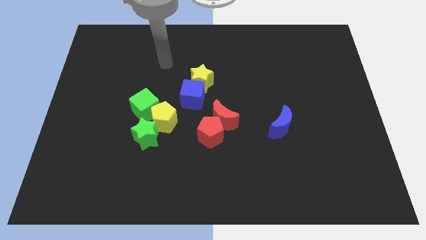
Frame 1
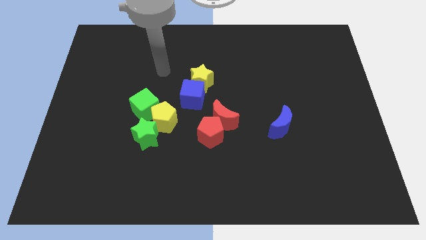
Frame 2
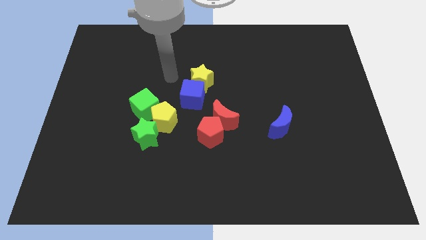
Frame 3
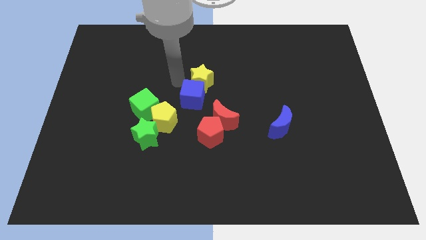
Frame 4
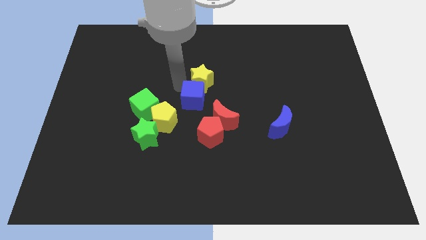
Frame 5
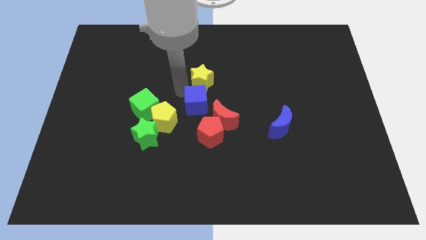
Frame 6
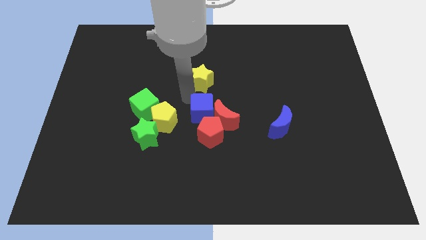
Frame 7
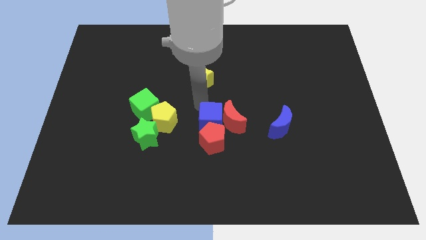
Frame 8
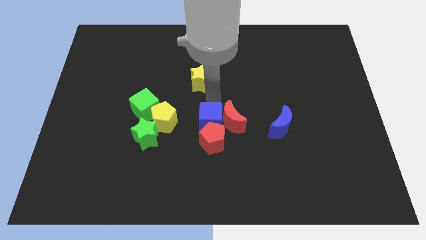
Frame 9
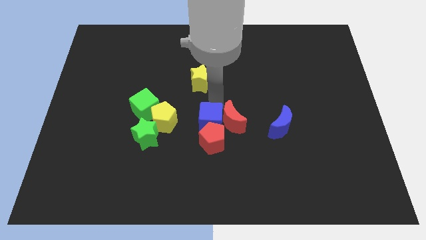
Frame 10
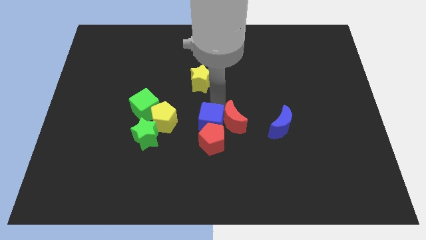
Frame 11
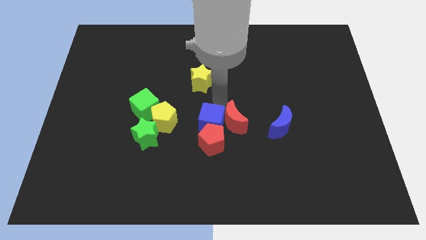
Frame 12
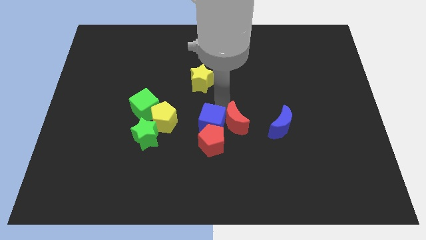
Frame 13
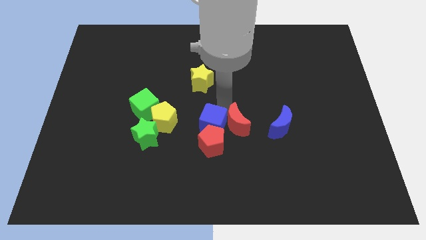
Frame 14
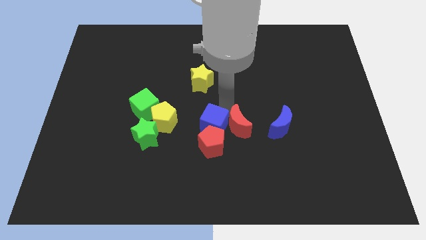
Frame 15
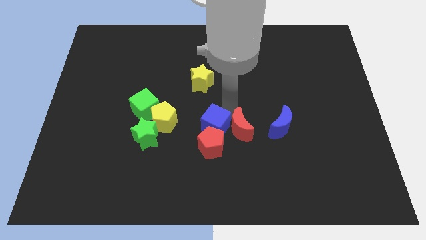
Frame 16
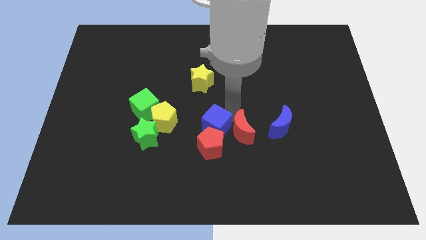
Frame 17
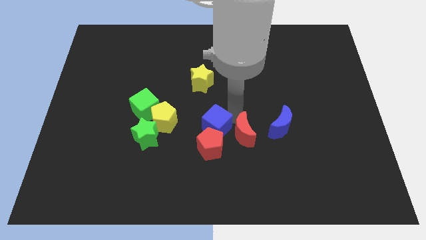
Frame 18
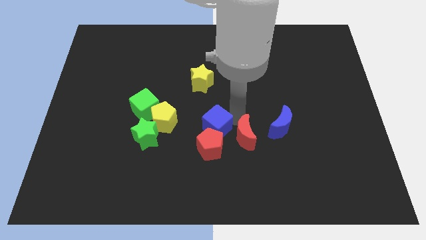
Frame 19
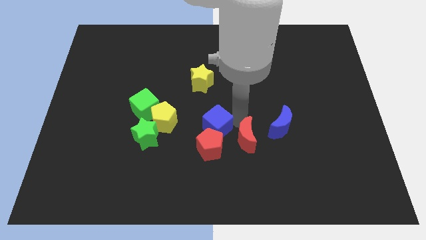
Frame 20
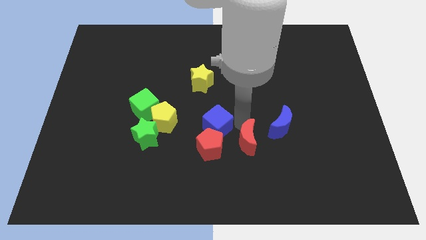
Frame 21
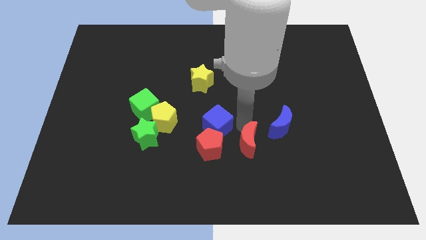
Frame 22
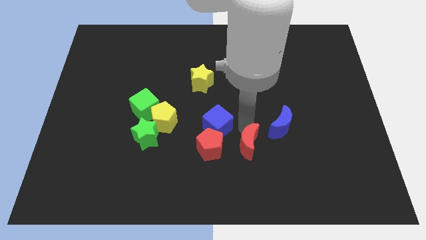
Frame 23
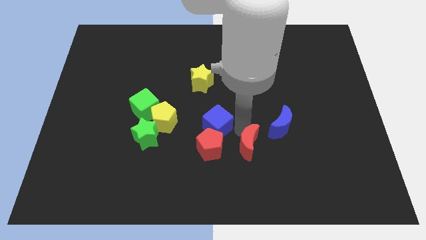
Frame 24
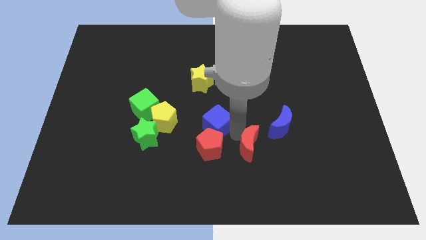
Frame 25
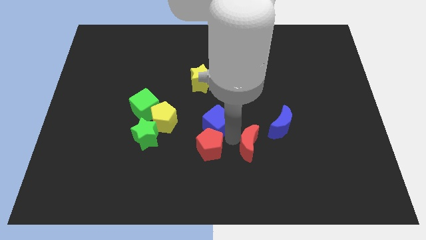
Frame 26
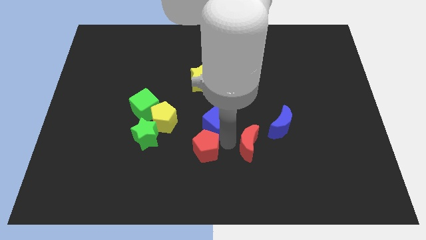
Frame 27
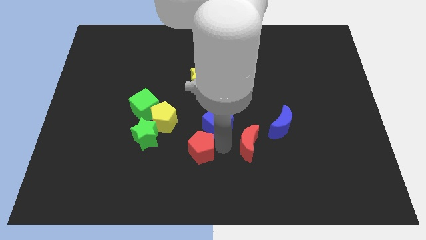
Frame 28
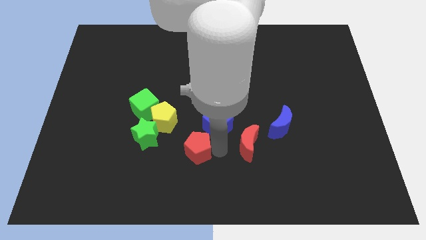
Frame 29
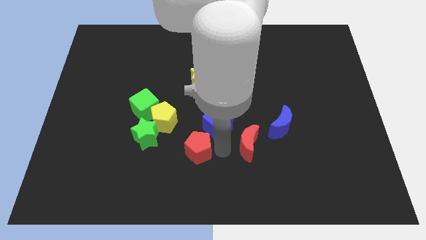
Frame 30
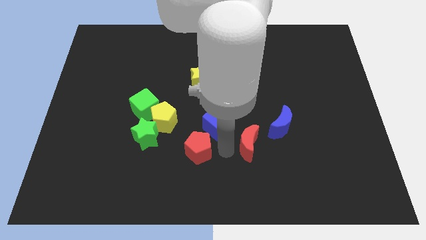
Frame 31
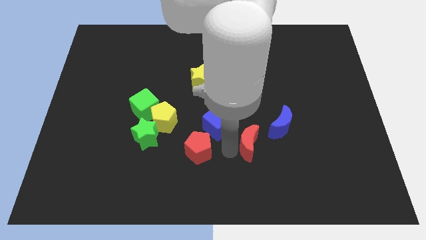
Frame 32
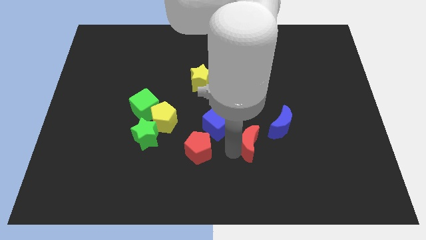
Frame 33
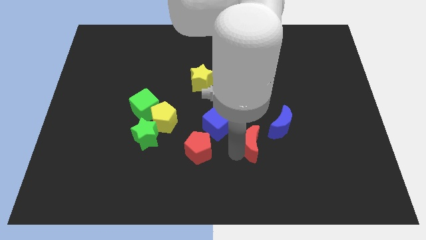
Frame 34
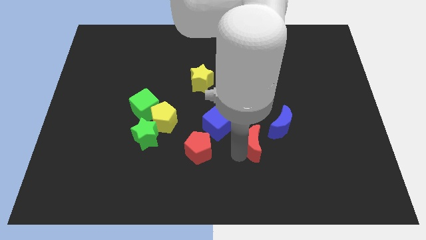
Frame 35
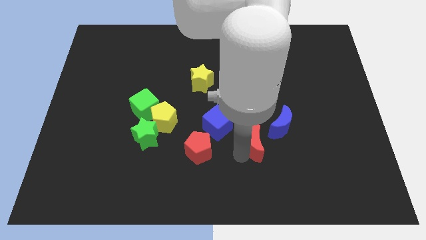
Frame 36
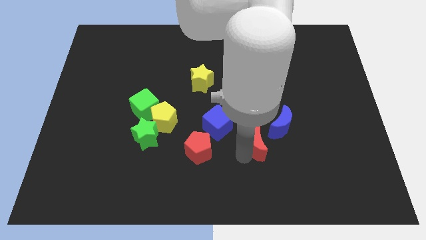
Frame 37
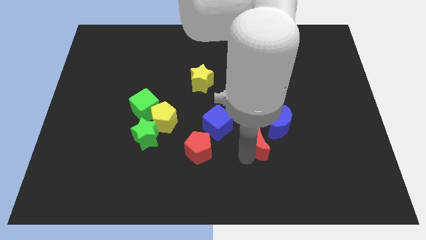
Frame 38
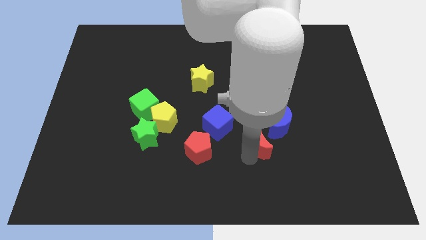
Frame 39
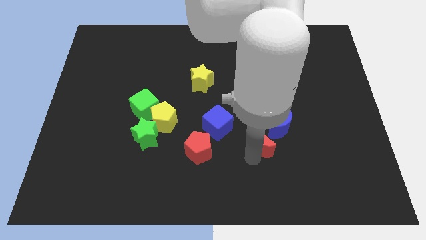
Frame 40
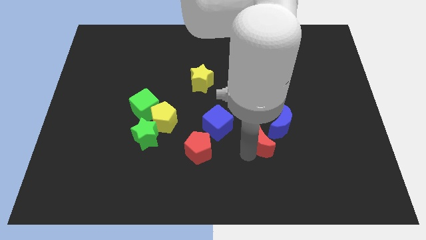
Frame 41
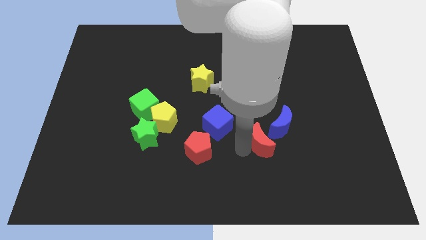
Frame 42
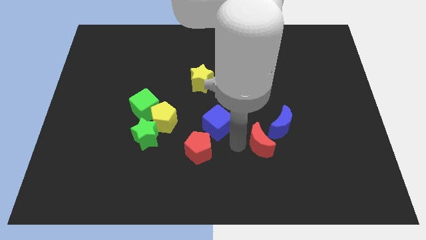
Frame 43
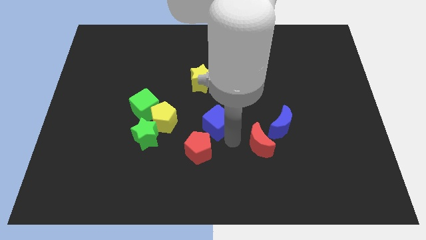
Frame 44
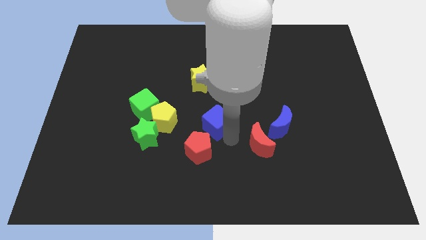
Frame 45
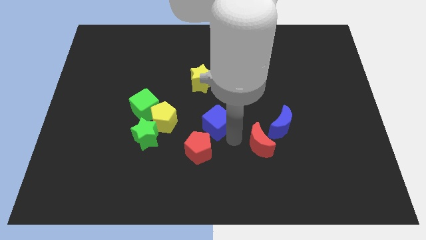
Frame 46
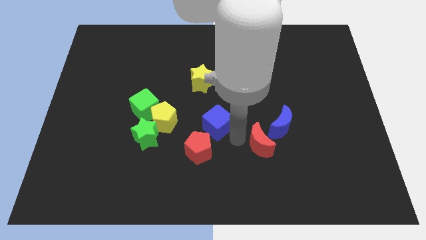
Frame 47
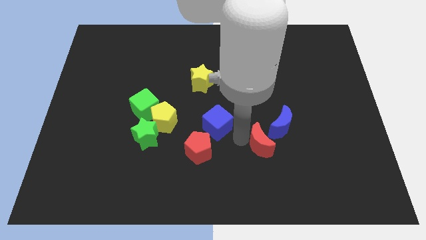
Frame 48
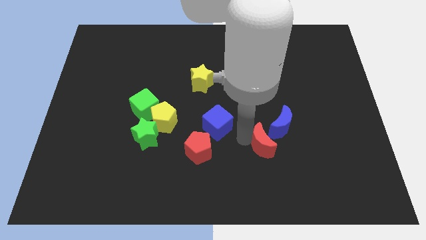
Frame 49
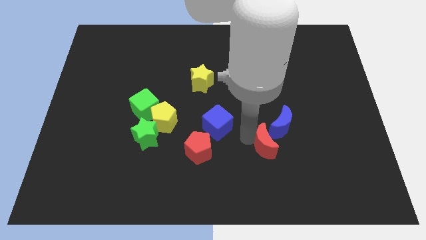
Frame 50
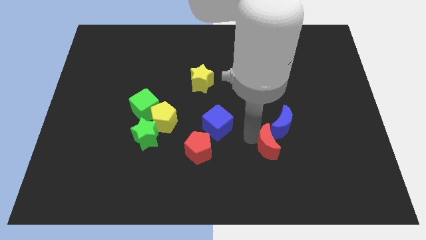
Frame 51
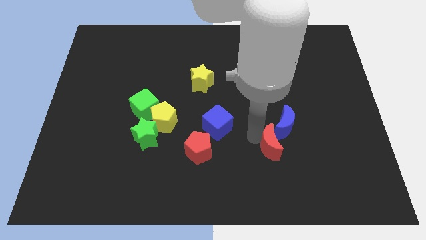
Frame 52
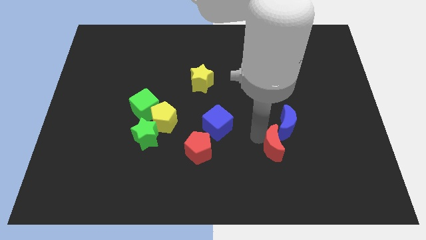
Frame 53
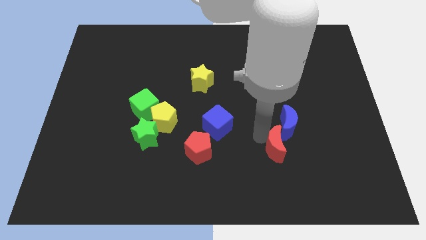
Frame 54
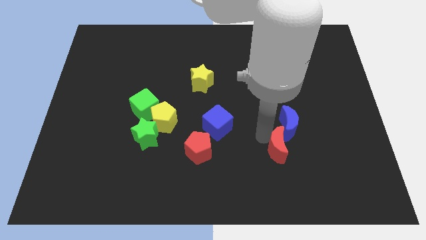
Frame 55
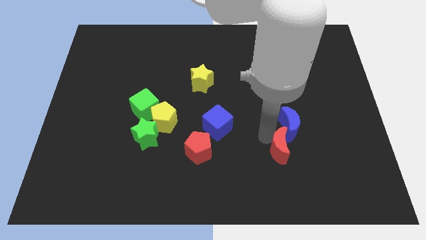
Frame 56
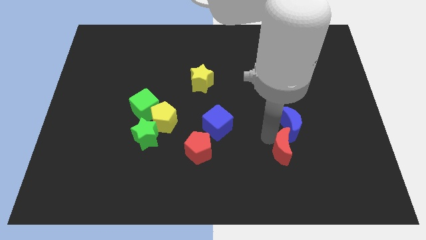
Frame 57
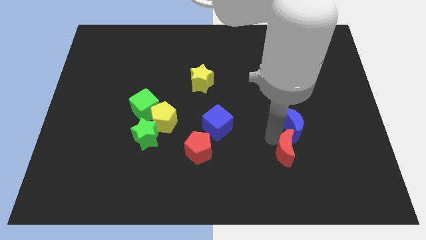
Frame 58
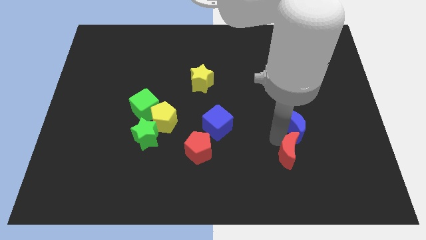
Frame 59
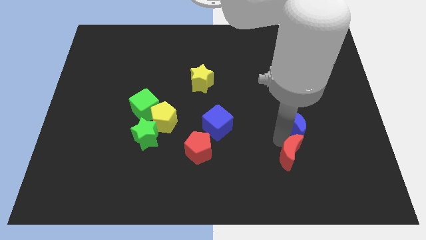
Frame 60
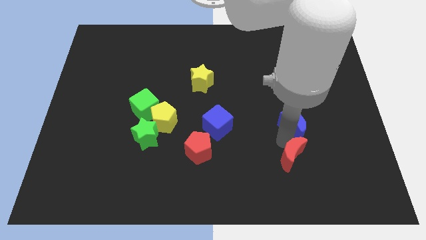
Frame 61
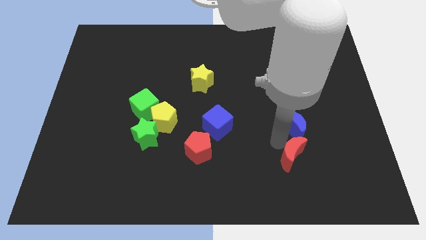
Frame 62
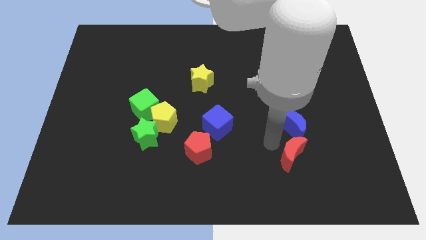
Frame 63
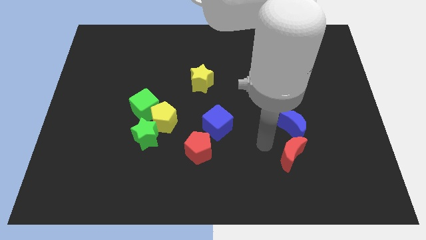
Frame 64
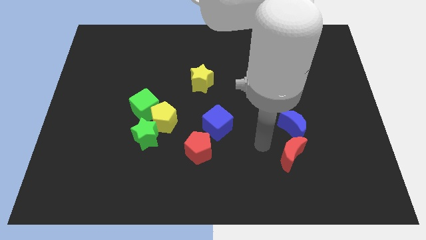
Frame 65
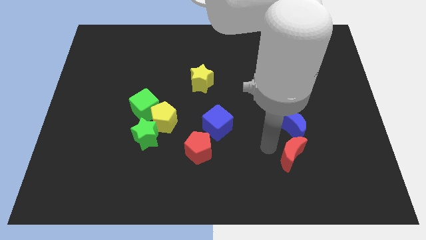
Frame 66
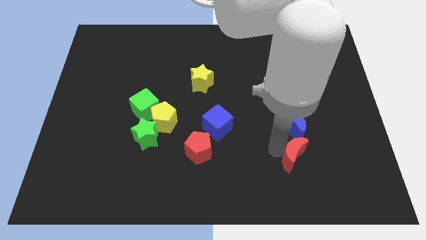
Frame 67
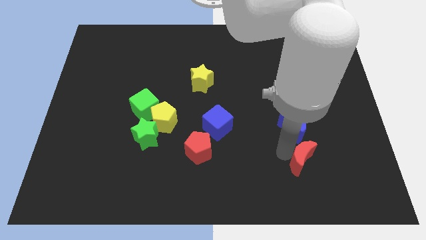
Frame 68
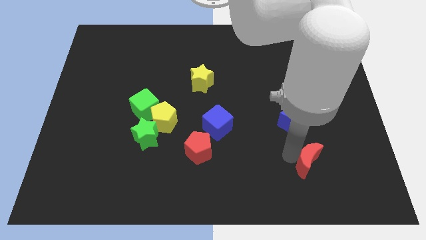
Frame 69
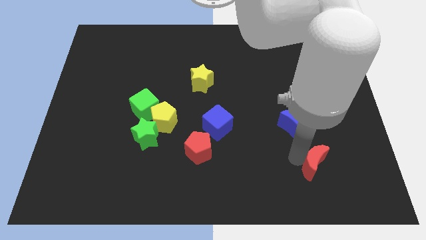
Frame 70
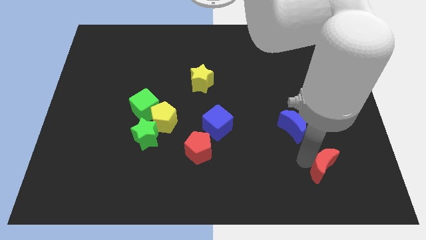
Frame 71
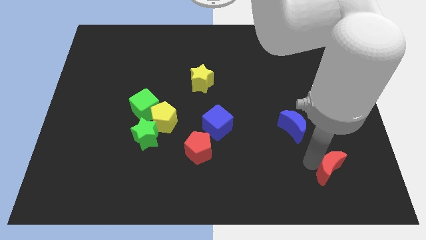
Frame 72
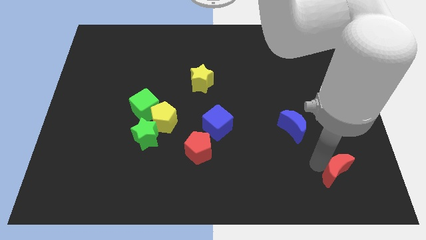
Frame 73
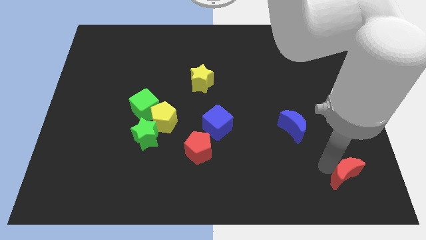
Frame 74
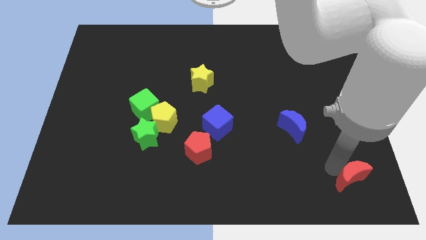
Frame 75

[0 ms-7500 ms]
put the red moon to the bottom right of the board

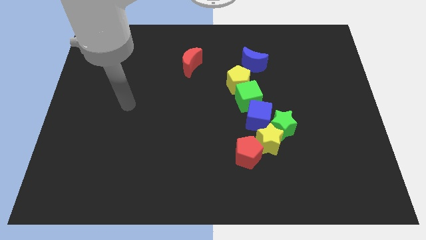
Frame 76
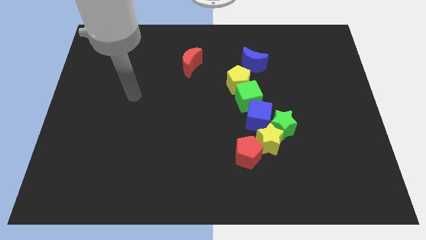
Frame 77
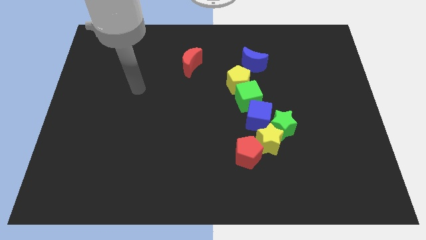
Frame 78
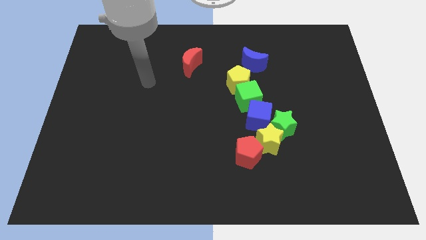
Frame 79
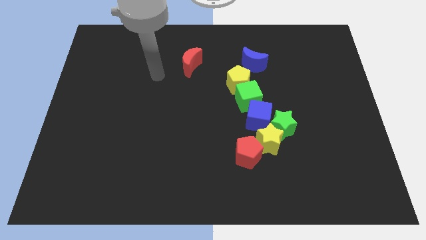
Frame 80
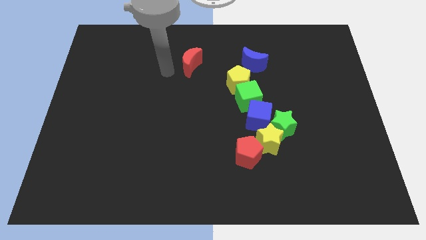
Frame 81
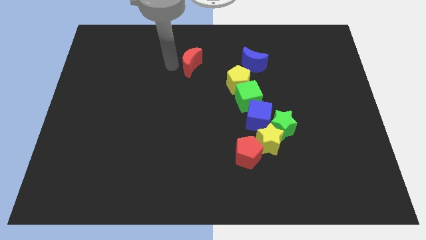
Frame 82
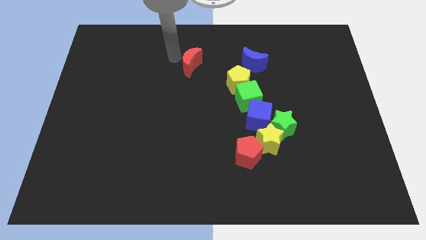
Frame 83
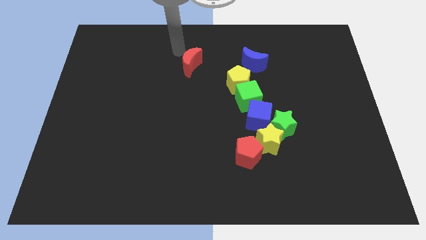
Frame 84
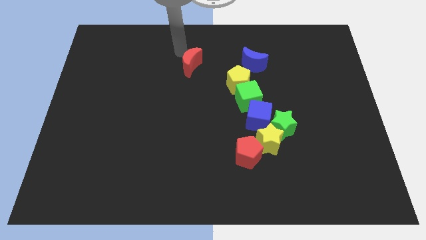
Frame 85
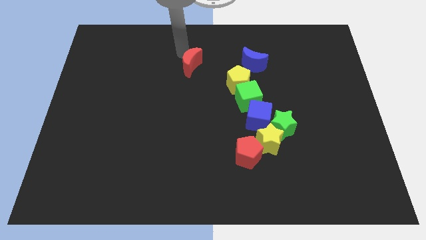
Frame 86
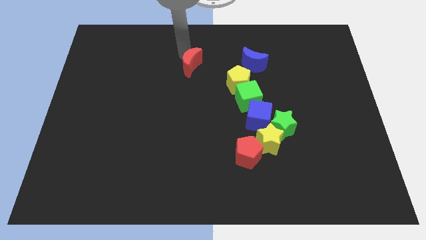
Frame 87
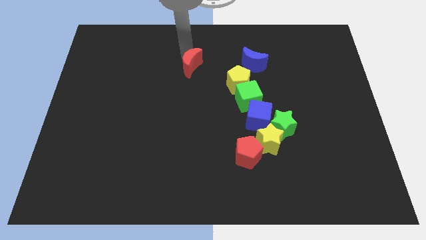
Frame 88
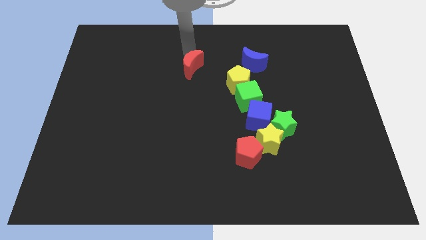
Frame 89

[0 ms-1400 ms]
push the red moon to the middle of the board
